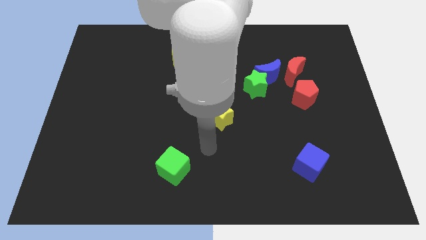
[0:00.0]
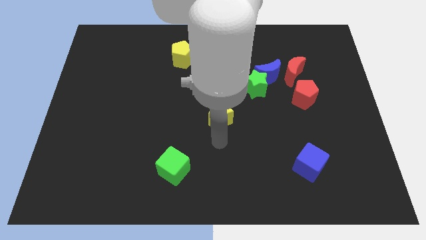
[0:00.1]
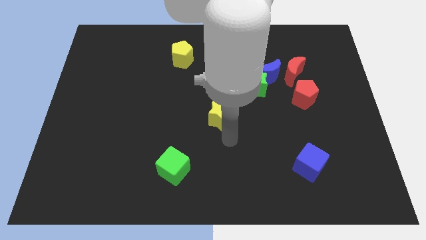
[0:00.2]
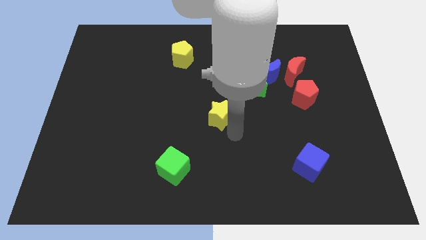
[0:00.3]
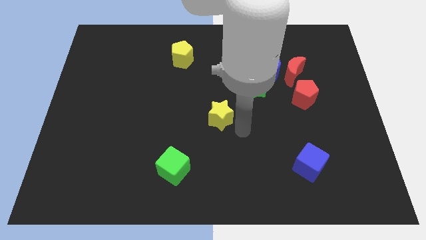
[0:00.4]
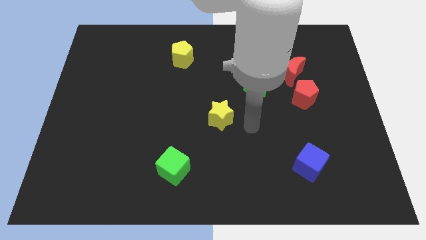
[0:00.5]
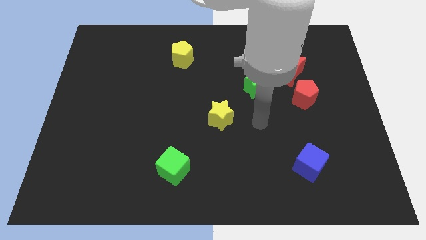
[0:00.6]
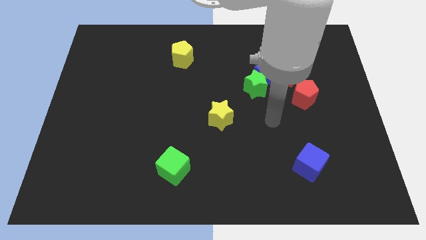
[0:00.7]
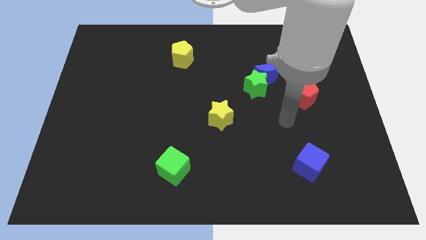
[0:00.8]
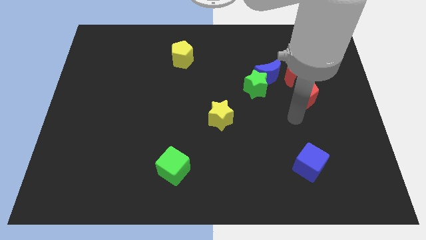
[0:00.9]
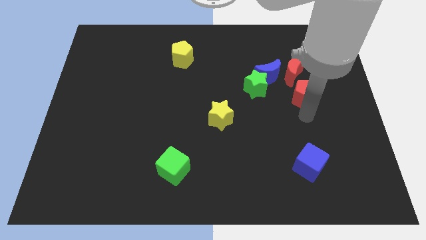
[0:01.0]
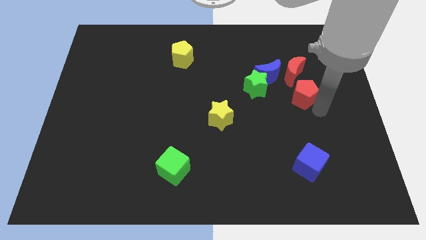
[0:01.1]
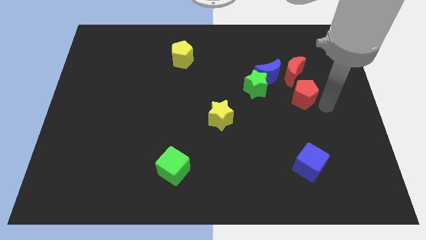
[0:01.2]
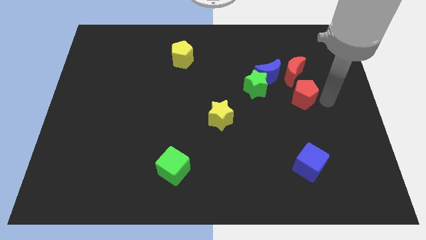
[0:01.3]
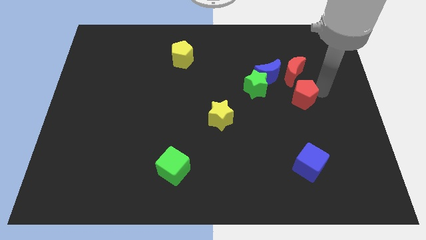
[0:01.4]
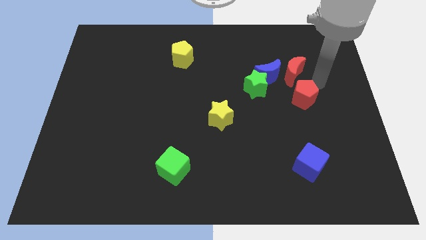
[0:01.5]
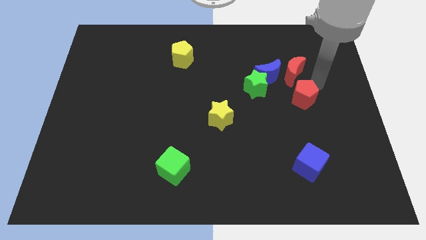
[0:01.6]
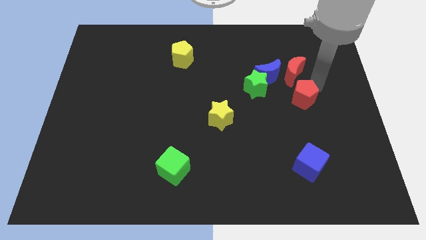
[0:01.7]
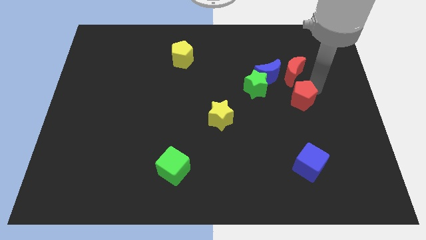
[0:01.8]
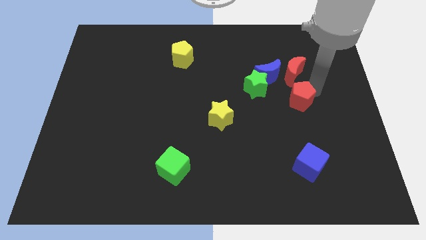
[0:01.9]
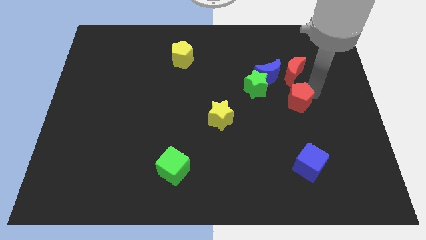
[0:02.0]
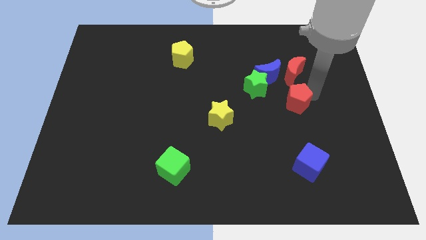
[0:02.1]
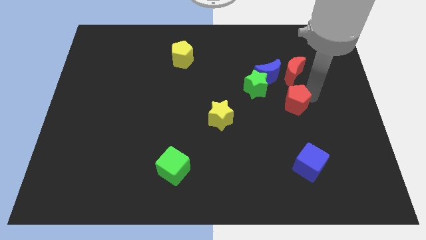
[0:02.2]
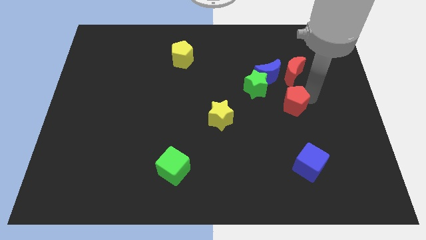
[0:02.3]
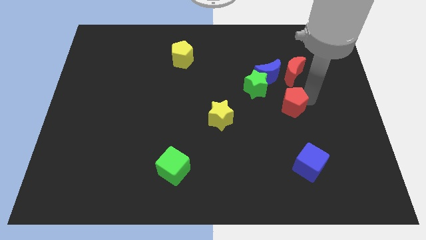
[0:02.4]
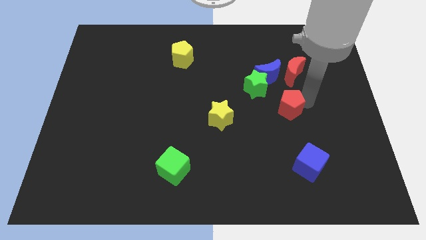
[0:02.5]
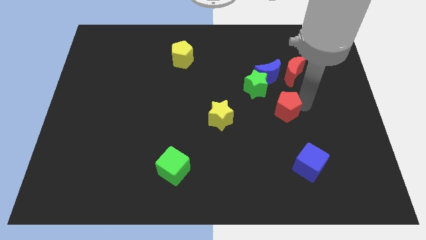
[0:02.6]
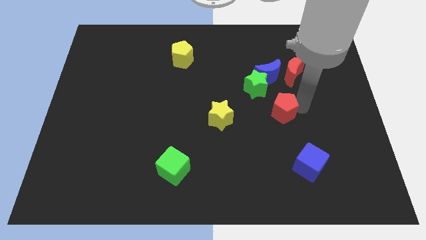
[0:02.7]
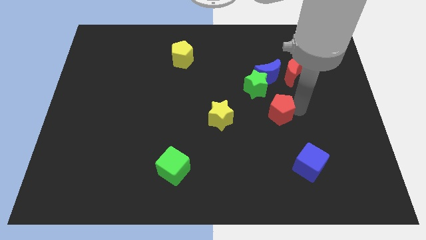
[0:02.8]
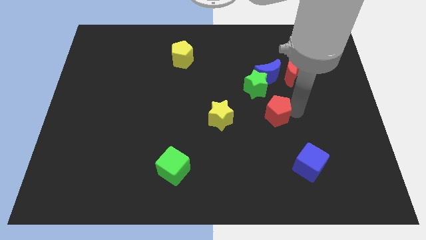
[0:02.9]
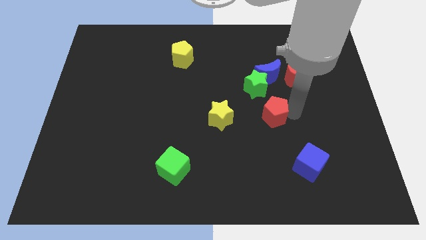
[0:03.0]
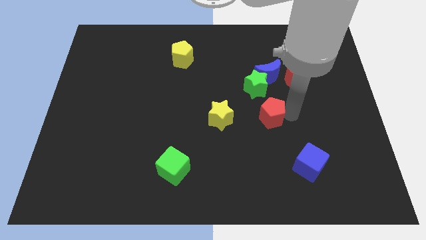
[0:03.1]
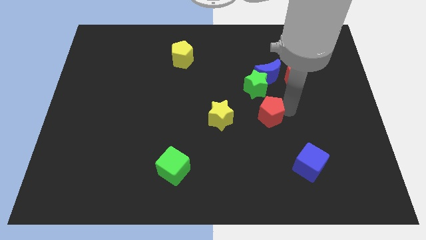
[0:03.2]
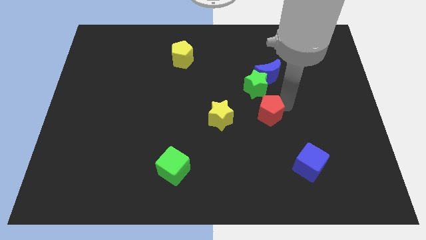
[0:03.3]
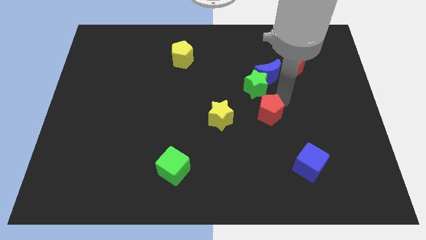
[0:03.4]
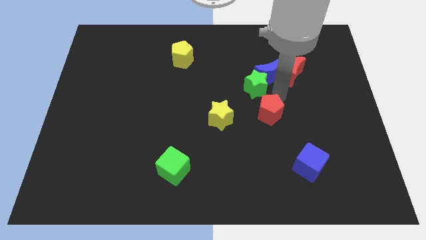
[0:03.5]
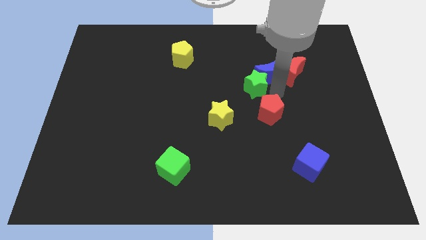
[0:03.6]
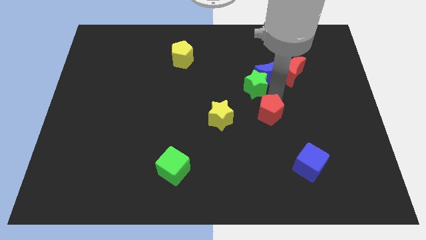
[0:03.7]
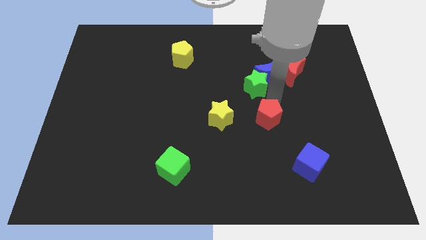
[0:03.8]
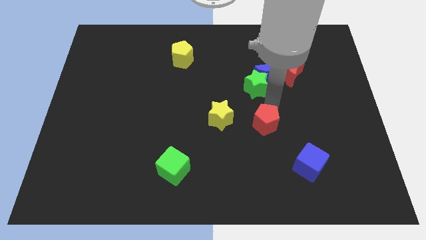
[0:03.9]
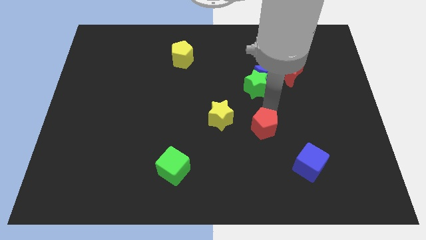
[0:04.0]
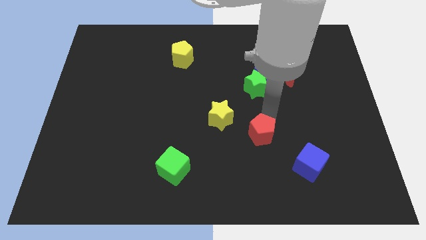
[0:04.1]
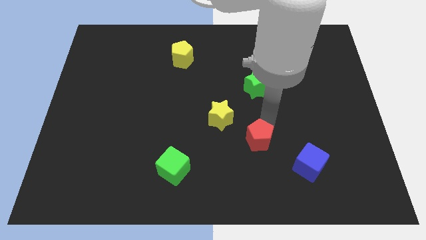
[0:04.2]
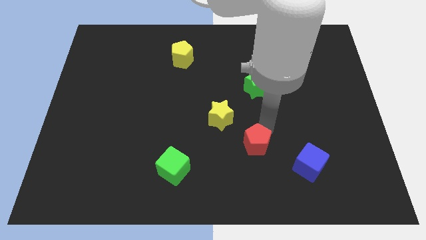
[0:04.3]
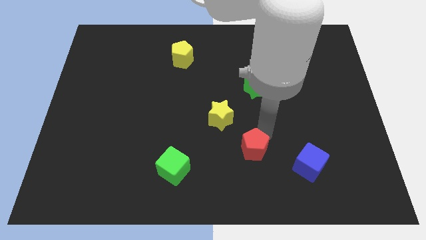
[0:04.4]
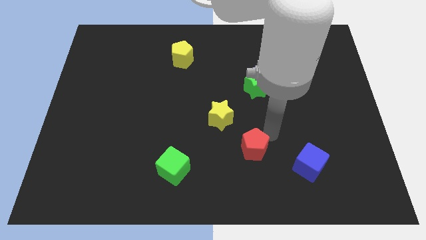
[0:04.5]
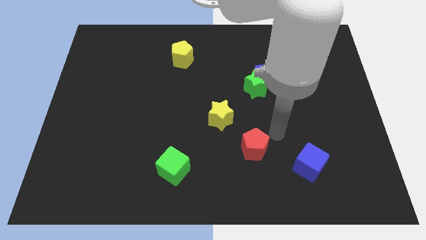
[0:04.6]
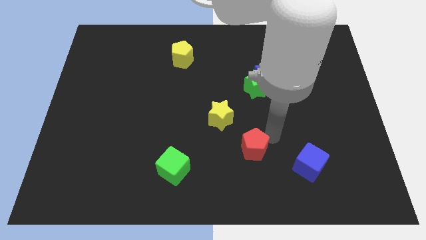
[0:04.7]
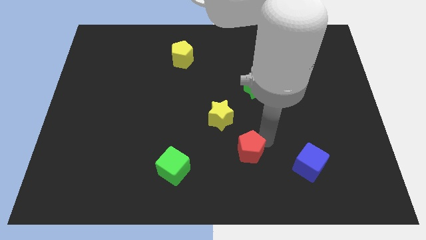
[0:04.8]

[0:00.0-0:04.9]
slide the red pentagon down and to the left

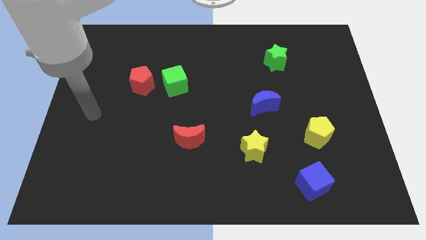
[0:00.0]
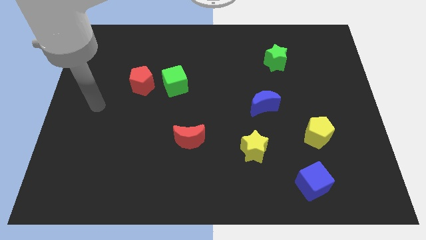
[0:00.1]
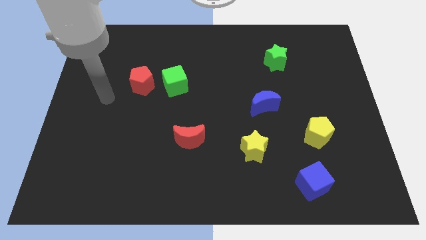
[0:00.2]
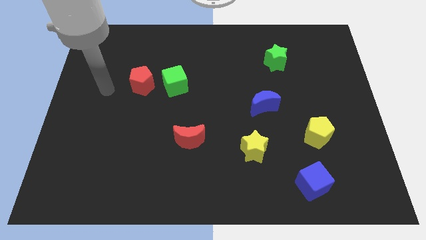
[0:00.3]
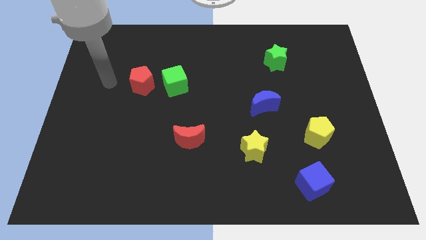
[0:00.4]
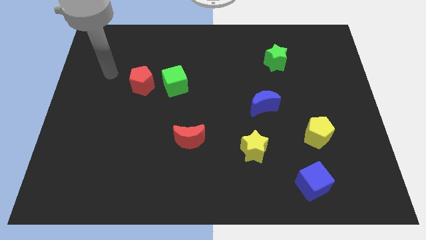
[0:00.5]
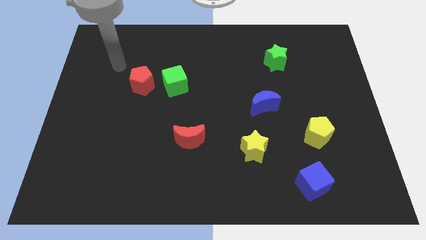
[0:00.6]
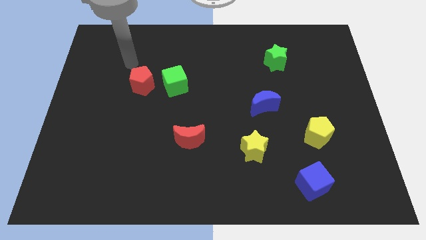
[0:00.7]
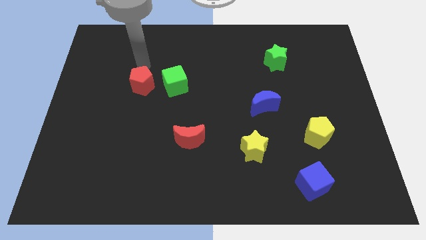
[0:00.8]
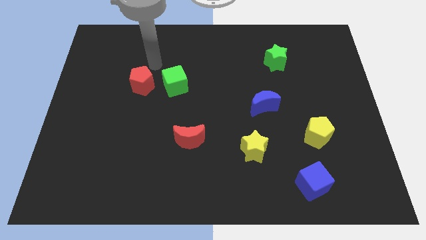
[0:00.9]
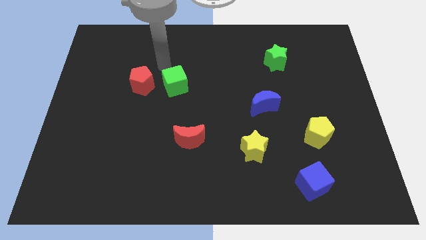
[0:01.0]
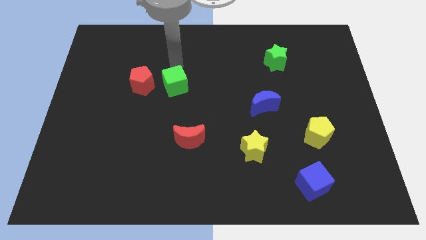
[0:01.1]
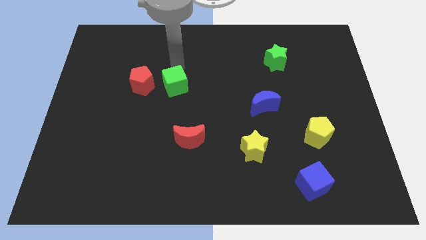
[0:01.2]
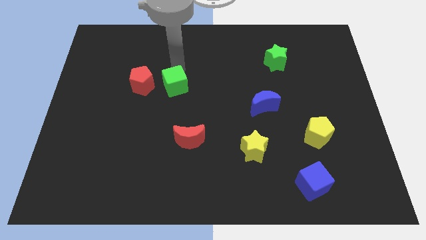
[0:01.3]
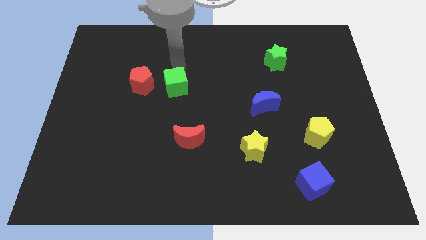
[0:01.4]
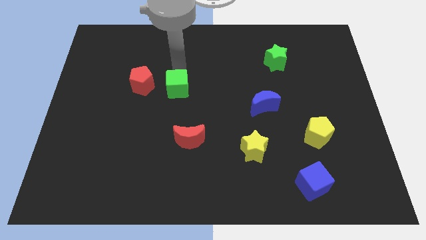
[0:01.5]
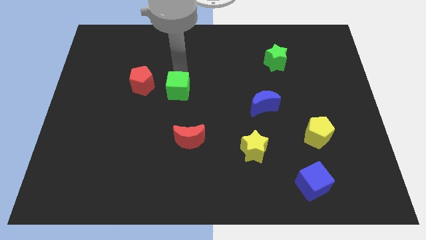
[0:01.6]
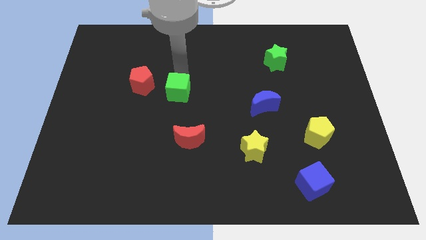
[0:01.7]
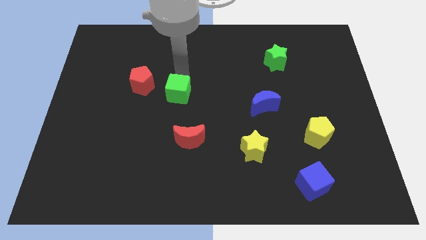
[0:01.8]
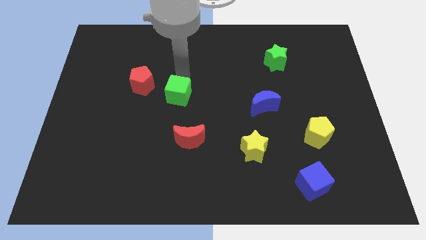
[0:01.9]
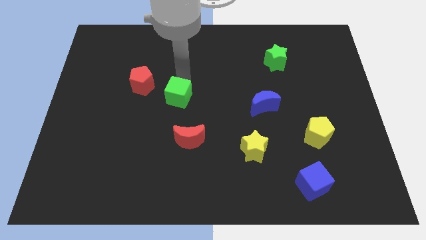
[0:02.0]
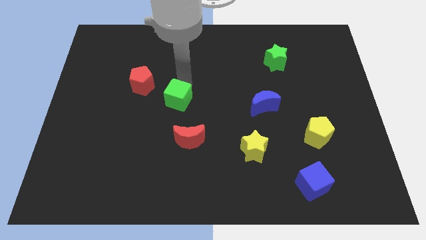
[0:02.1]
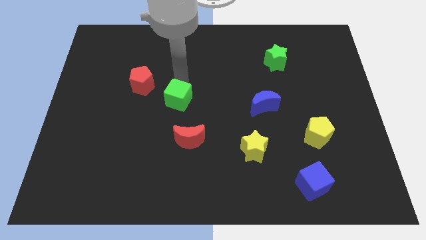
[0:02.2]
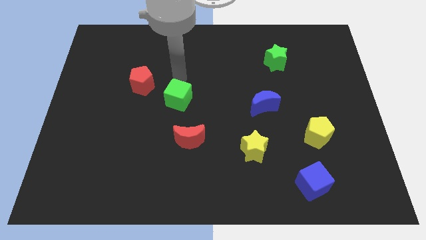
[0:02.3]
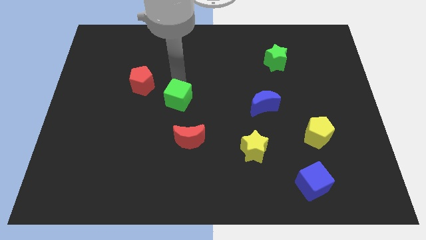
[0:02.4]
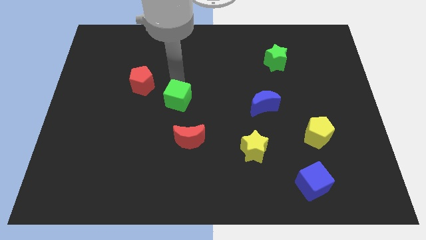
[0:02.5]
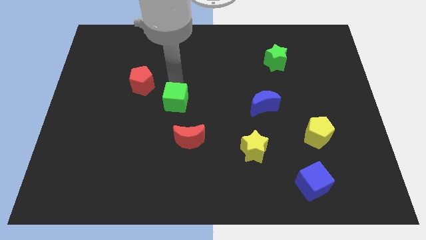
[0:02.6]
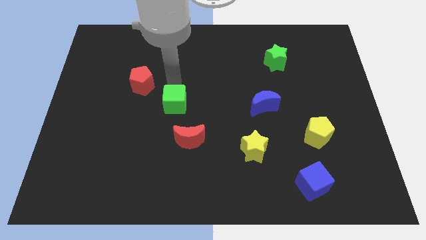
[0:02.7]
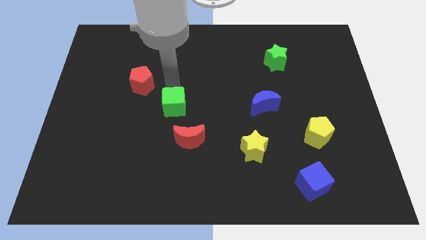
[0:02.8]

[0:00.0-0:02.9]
move the green cube a little down

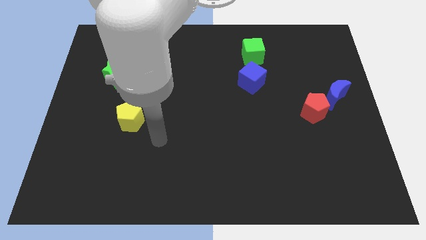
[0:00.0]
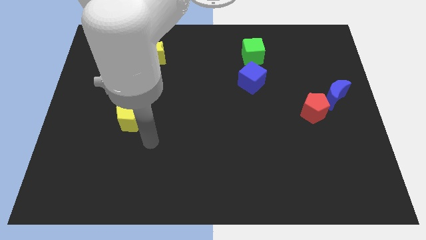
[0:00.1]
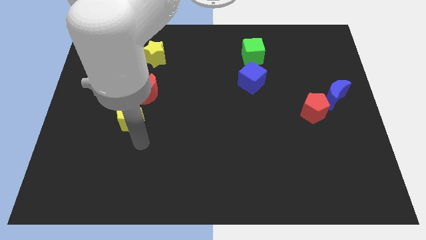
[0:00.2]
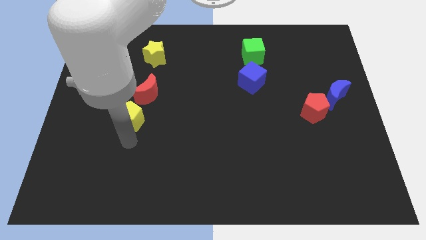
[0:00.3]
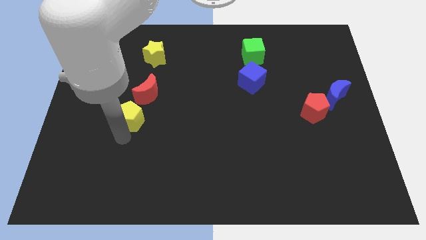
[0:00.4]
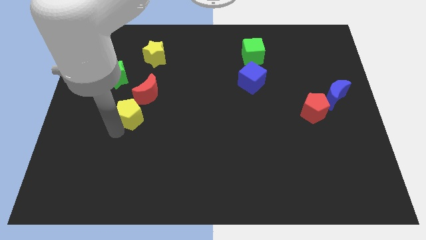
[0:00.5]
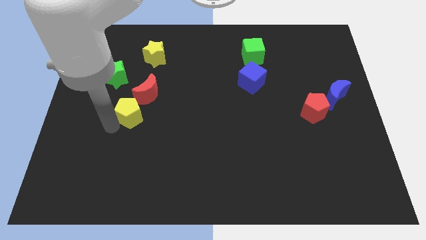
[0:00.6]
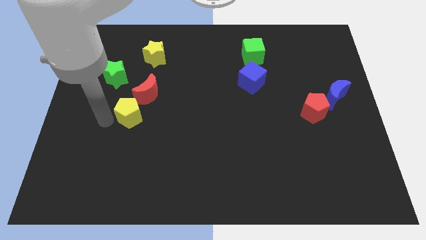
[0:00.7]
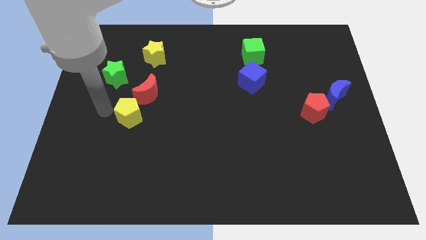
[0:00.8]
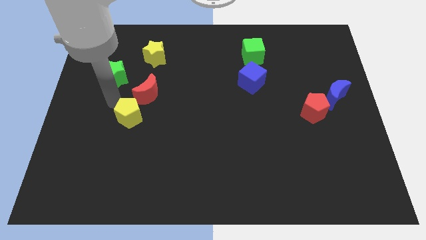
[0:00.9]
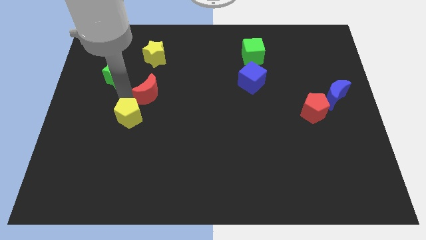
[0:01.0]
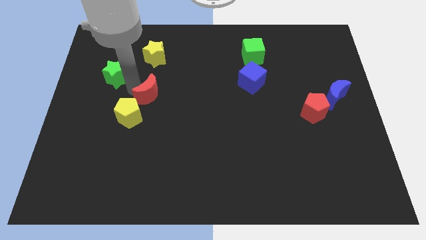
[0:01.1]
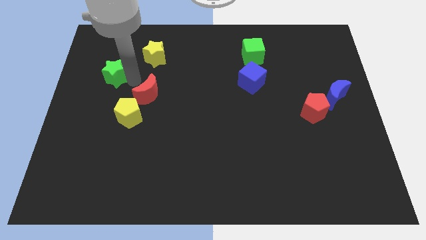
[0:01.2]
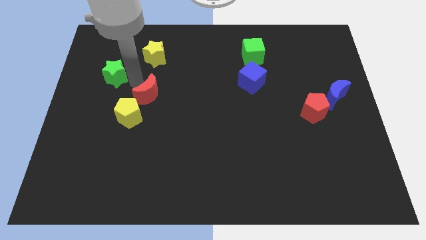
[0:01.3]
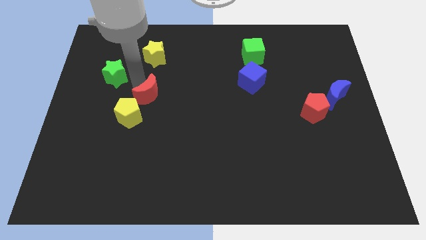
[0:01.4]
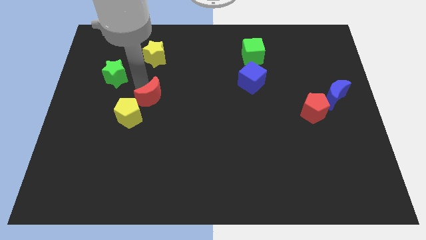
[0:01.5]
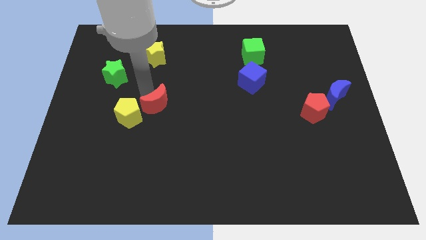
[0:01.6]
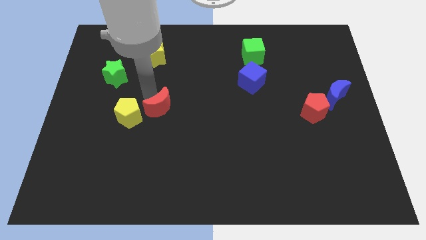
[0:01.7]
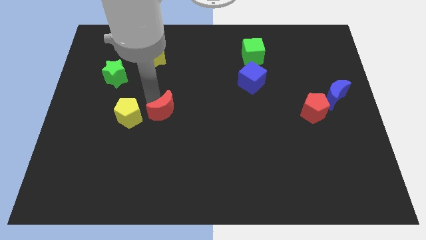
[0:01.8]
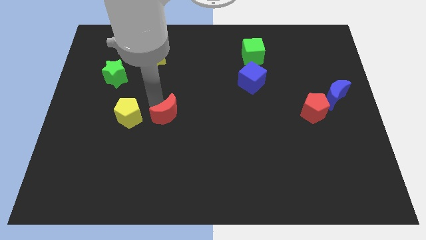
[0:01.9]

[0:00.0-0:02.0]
slide the red moon down and then right a little bit
